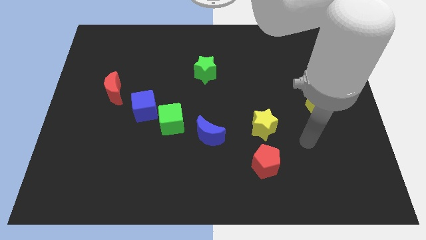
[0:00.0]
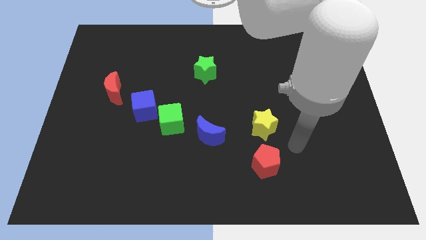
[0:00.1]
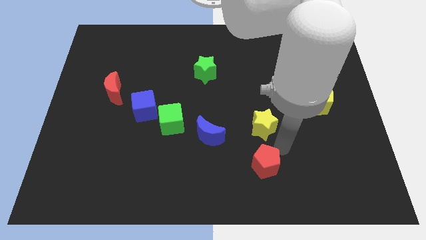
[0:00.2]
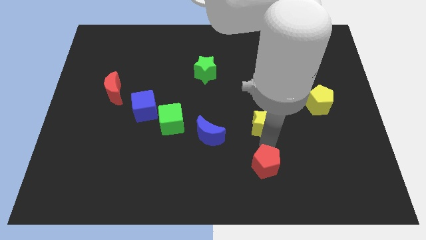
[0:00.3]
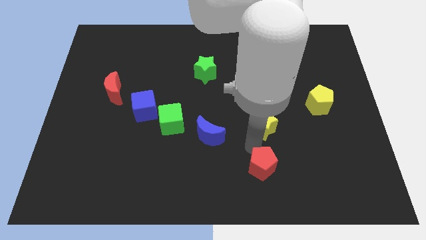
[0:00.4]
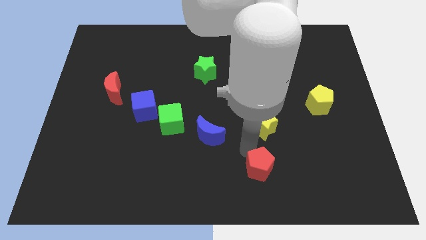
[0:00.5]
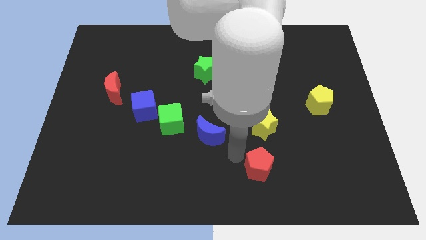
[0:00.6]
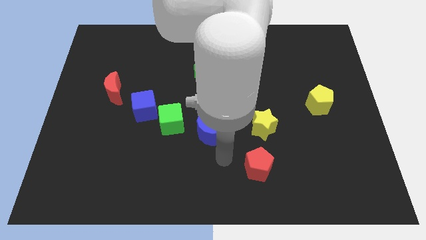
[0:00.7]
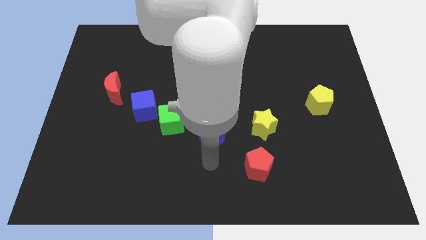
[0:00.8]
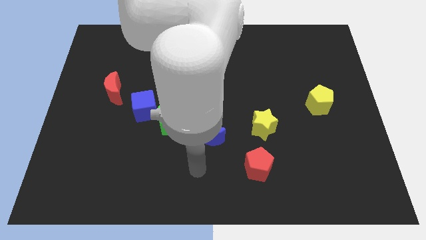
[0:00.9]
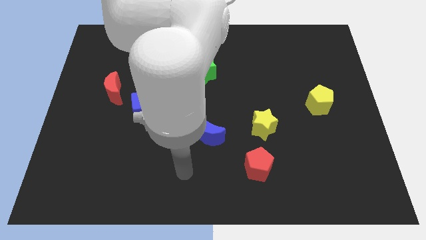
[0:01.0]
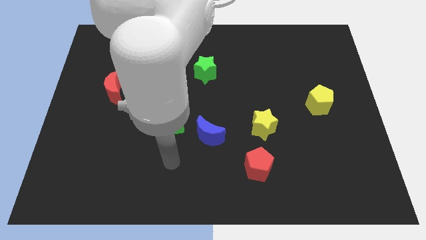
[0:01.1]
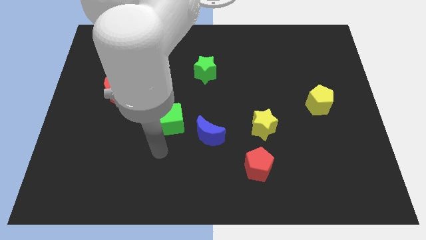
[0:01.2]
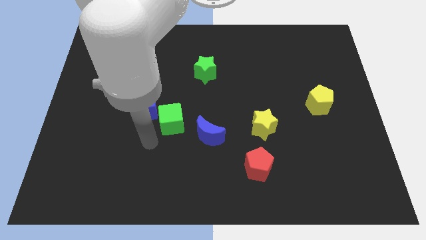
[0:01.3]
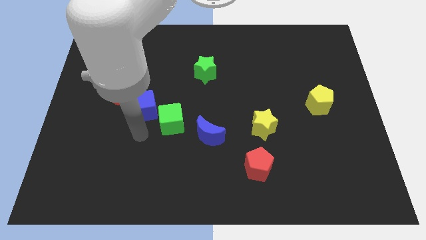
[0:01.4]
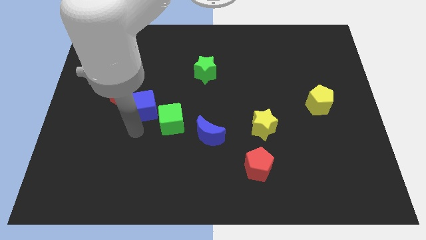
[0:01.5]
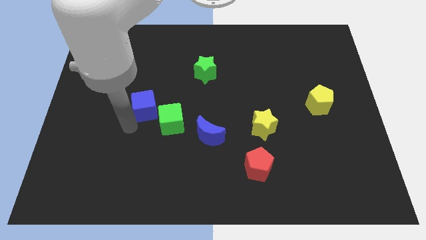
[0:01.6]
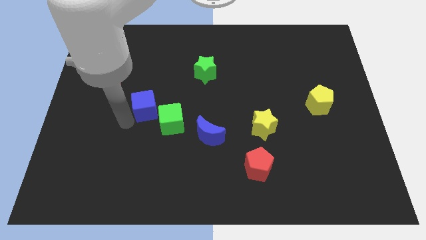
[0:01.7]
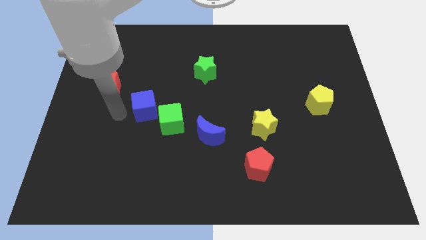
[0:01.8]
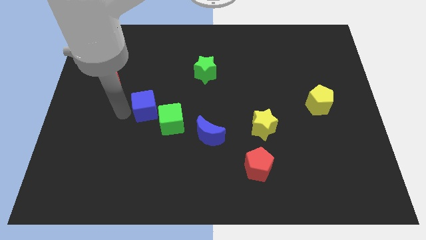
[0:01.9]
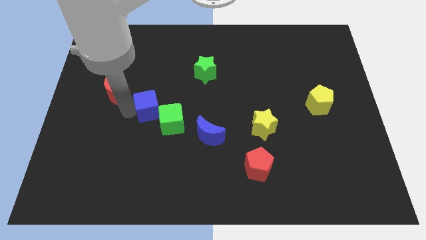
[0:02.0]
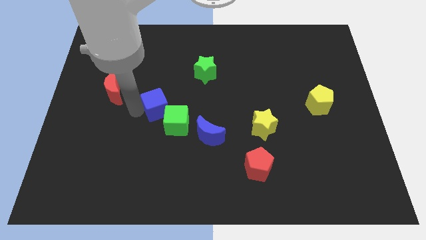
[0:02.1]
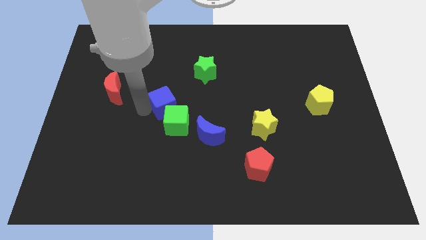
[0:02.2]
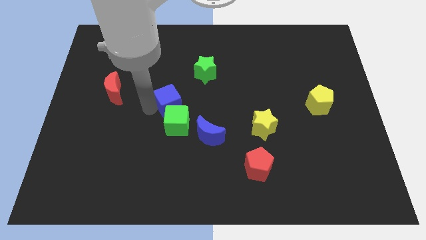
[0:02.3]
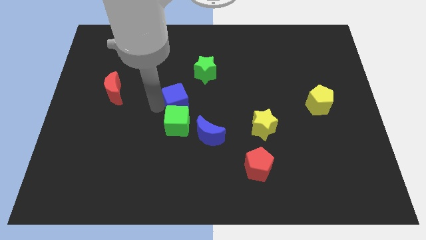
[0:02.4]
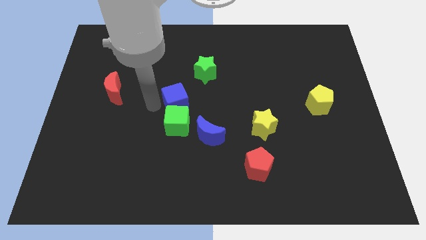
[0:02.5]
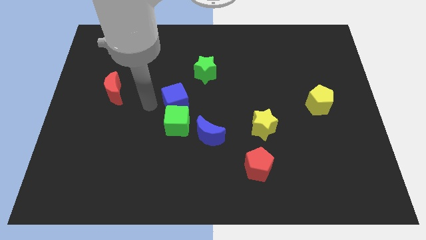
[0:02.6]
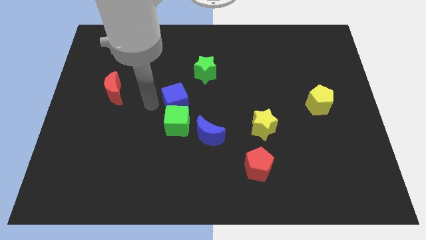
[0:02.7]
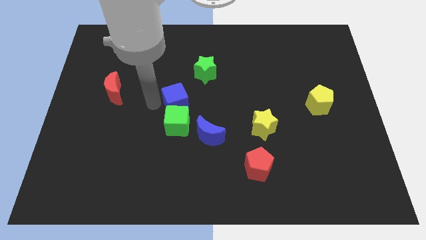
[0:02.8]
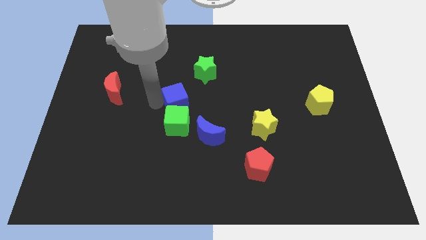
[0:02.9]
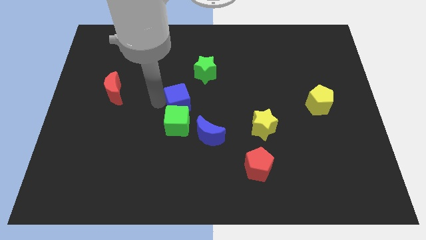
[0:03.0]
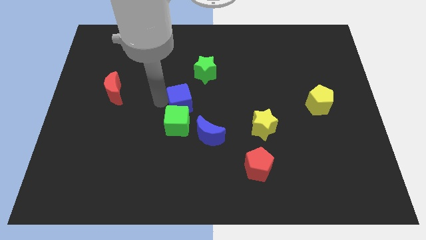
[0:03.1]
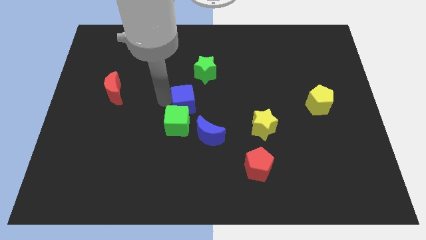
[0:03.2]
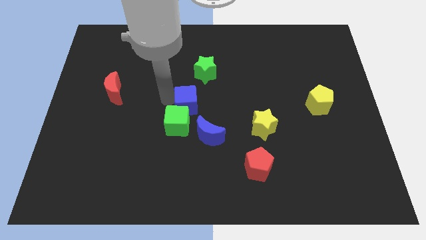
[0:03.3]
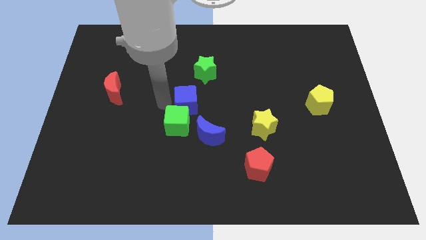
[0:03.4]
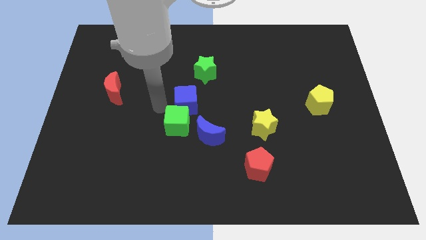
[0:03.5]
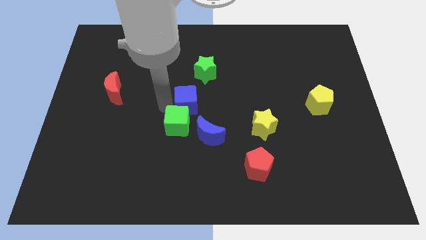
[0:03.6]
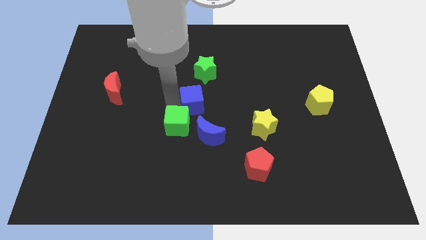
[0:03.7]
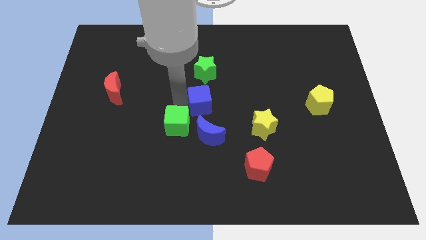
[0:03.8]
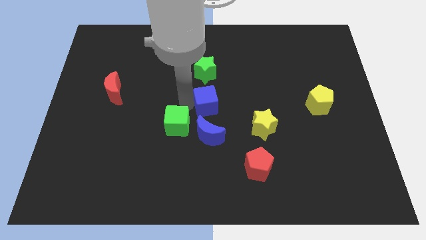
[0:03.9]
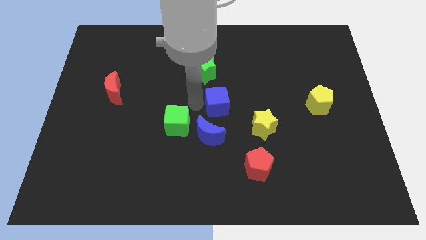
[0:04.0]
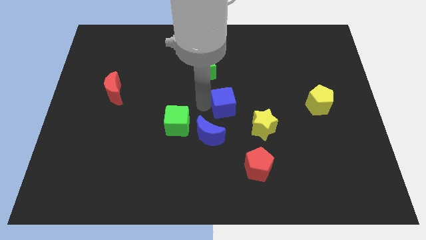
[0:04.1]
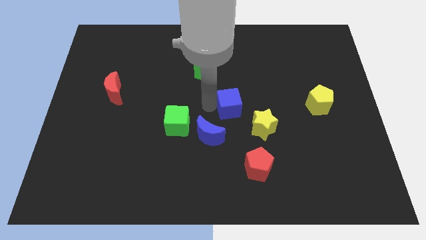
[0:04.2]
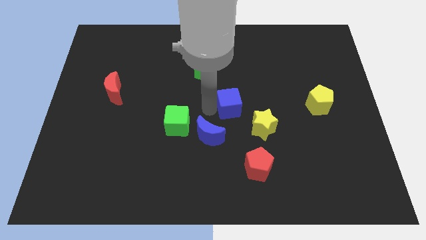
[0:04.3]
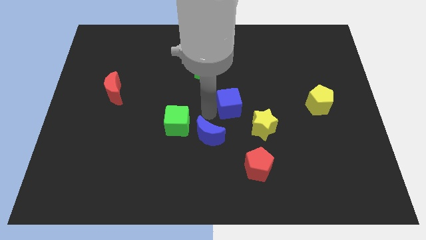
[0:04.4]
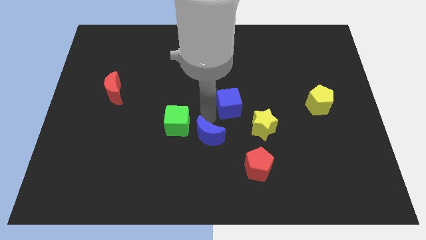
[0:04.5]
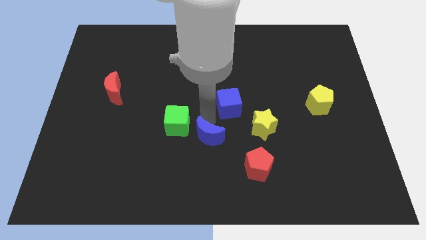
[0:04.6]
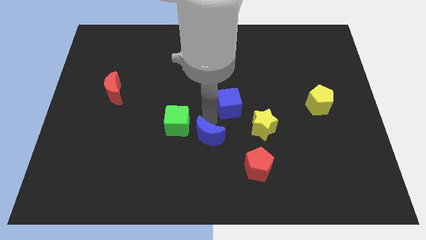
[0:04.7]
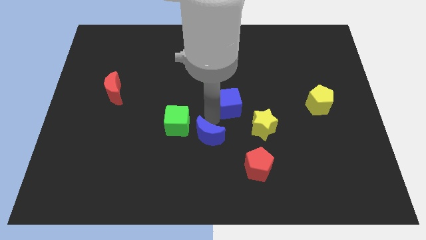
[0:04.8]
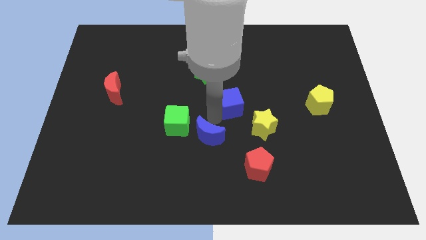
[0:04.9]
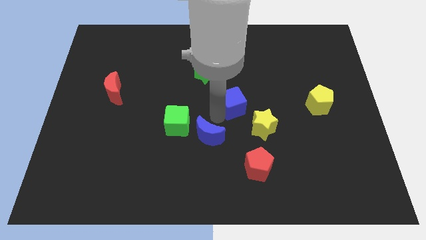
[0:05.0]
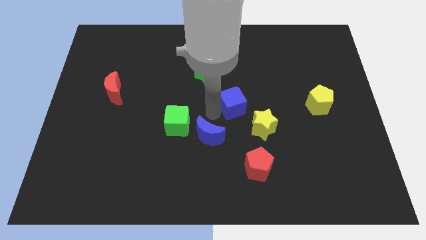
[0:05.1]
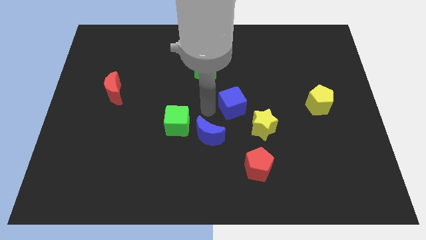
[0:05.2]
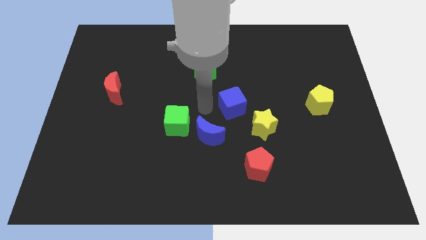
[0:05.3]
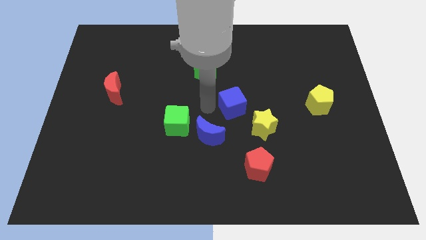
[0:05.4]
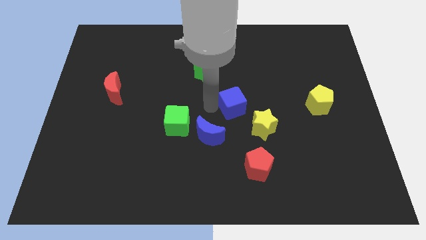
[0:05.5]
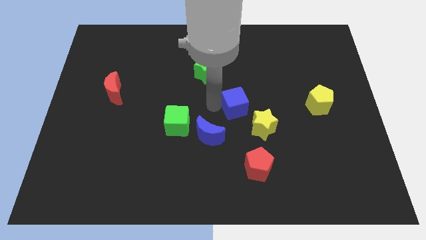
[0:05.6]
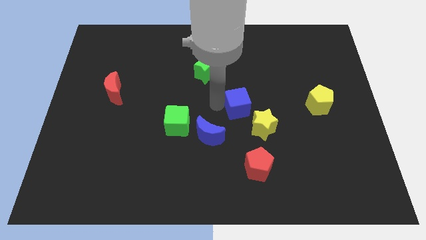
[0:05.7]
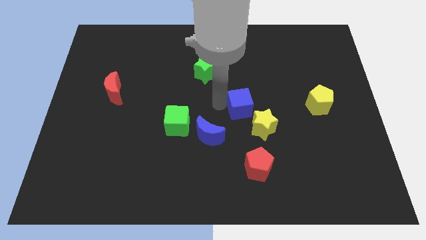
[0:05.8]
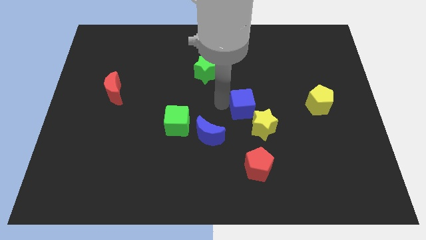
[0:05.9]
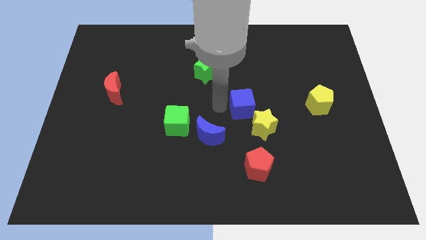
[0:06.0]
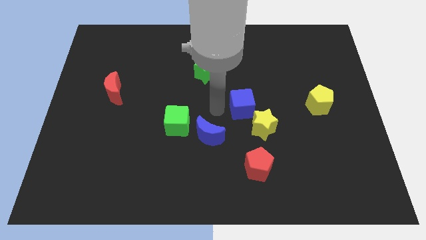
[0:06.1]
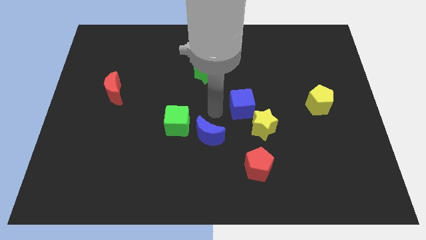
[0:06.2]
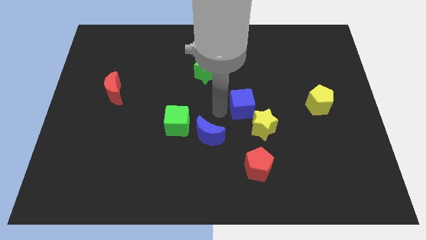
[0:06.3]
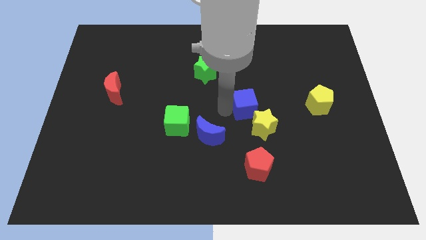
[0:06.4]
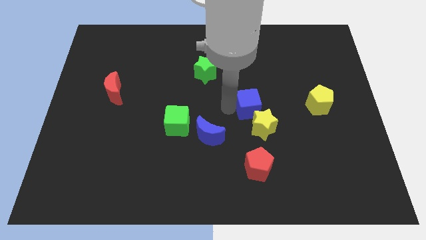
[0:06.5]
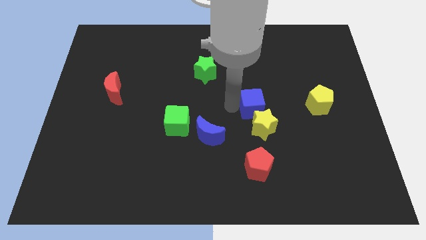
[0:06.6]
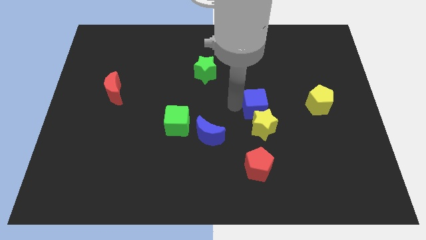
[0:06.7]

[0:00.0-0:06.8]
put the blue cube to the top right of the yellow star
